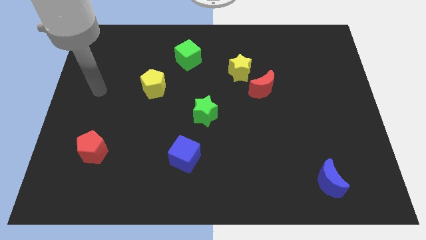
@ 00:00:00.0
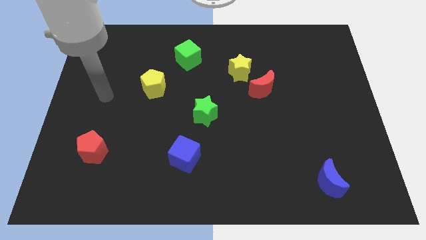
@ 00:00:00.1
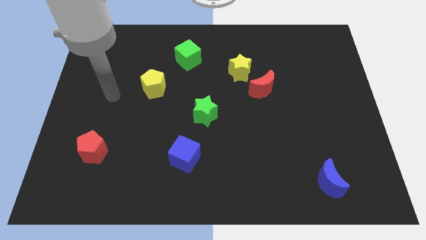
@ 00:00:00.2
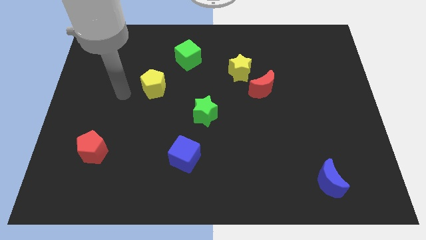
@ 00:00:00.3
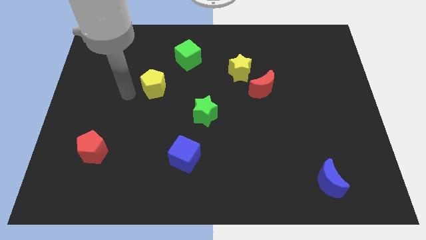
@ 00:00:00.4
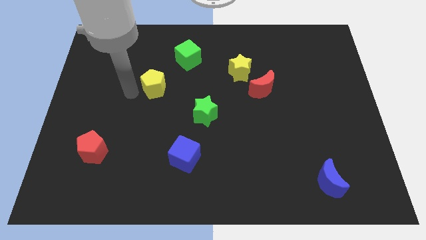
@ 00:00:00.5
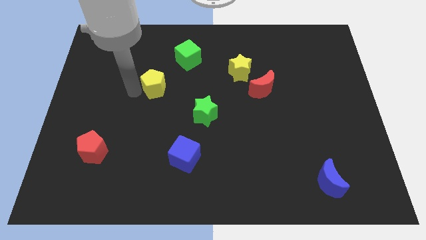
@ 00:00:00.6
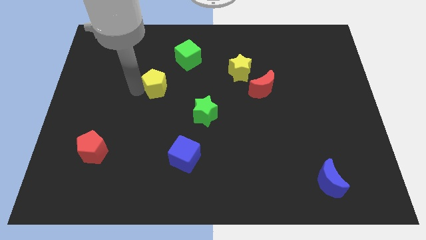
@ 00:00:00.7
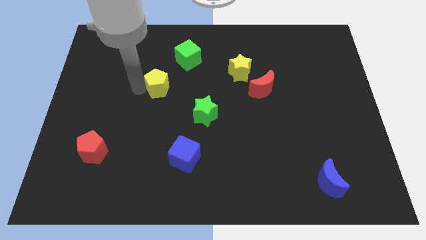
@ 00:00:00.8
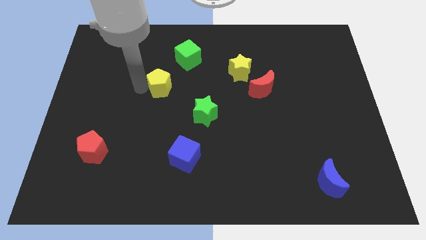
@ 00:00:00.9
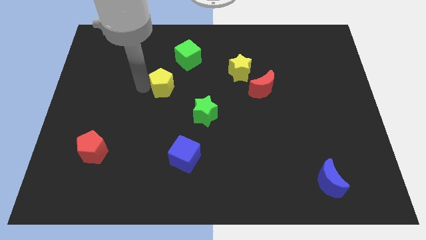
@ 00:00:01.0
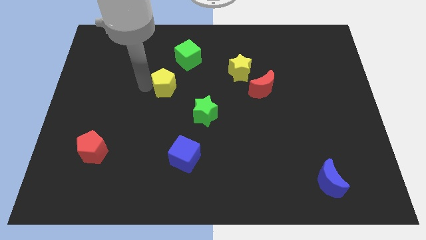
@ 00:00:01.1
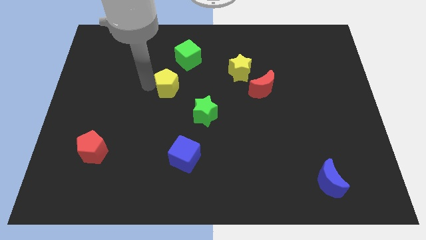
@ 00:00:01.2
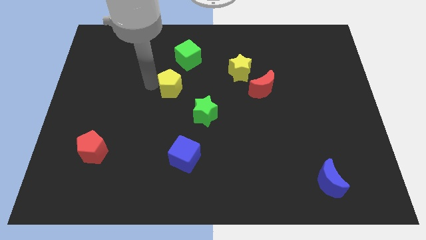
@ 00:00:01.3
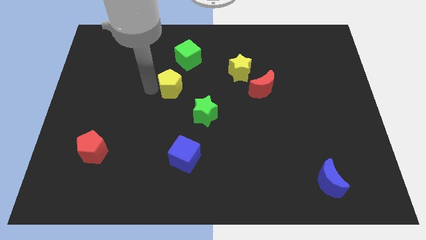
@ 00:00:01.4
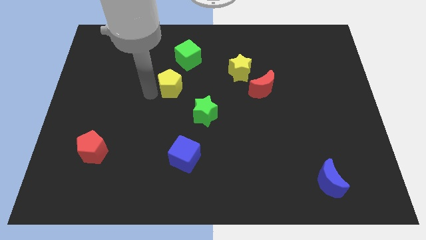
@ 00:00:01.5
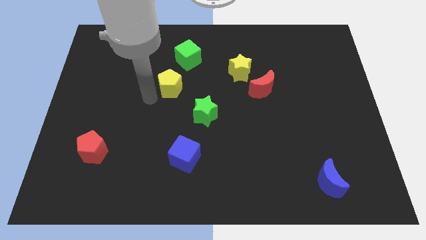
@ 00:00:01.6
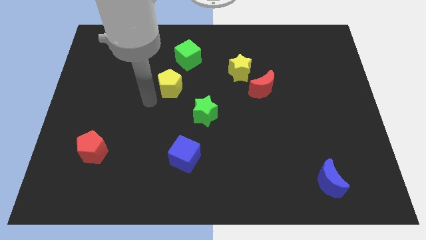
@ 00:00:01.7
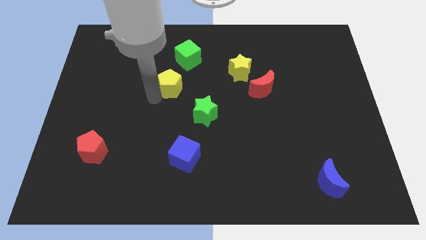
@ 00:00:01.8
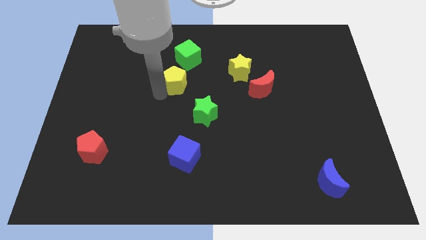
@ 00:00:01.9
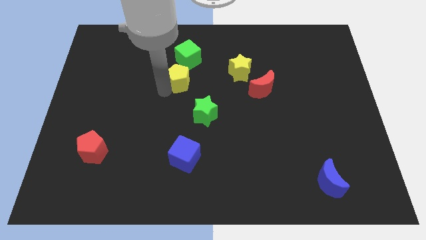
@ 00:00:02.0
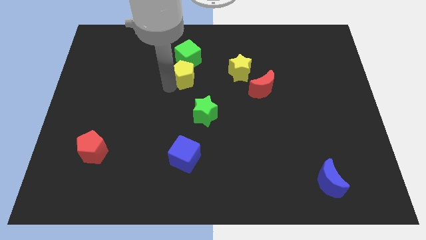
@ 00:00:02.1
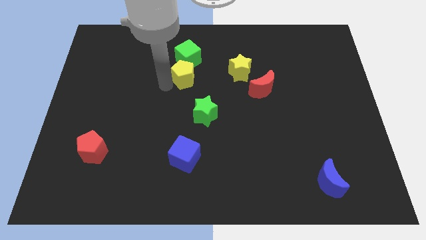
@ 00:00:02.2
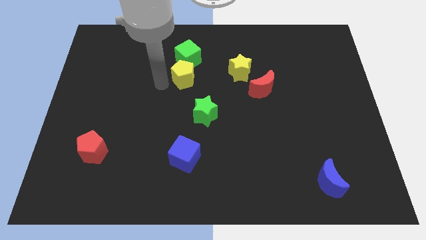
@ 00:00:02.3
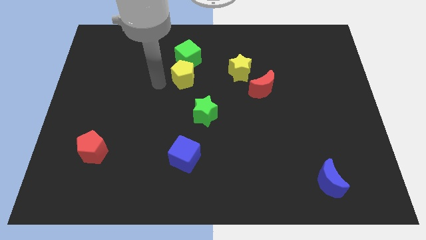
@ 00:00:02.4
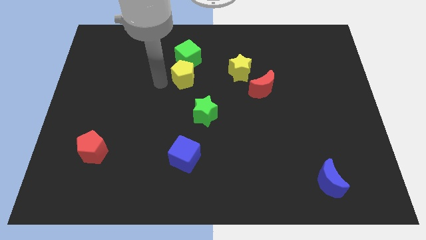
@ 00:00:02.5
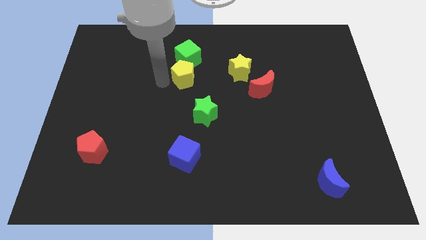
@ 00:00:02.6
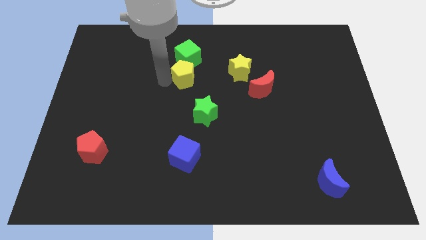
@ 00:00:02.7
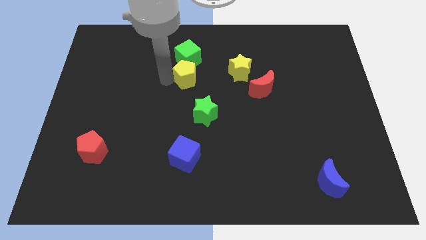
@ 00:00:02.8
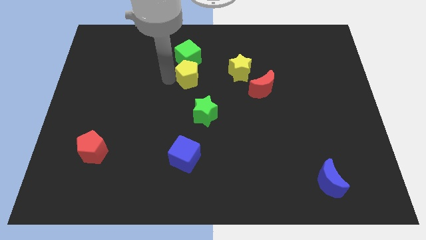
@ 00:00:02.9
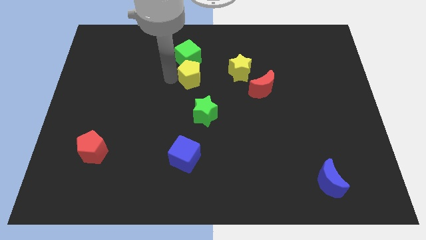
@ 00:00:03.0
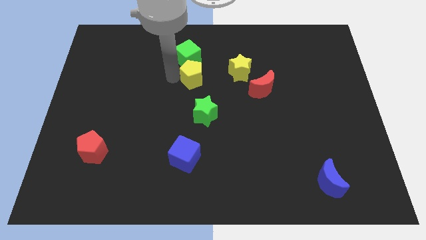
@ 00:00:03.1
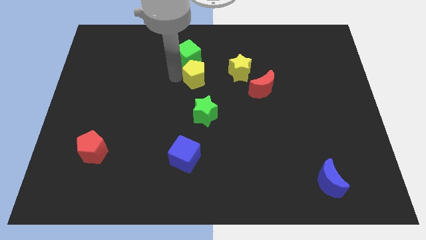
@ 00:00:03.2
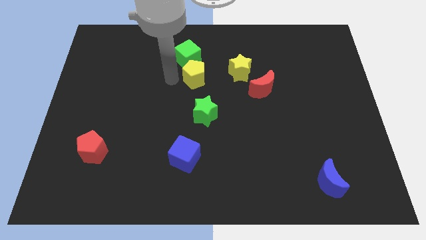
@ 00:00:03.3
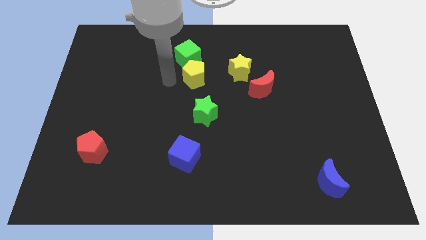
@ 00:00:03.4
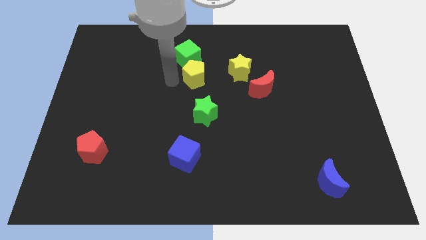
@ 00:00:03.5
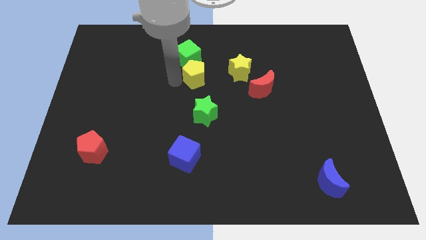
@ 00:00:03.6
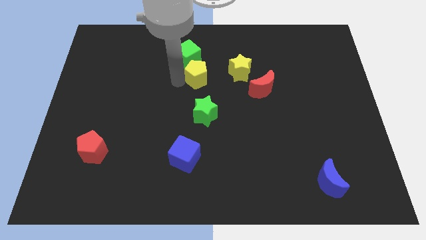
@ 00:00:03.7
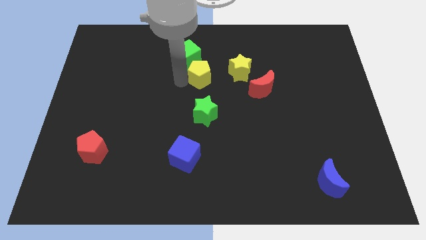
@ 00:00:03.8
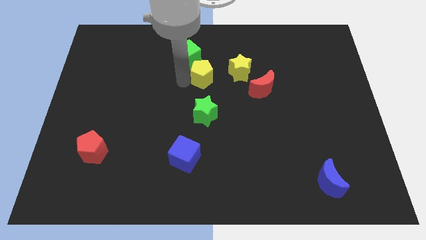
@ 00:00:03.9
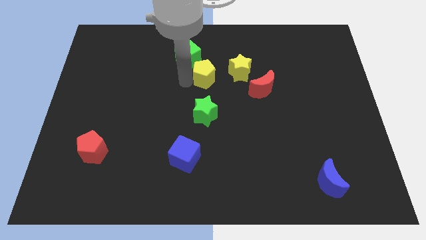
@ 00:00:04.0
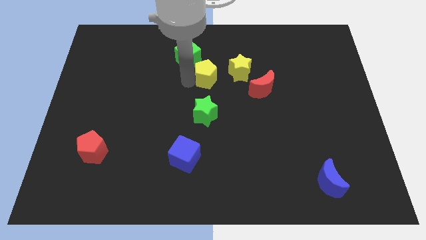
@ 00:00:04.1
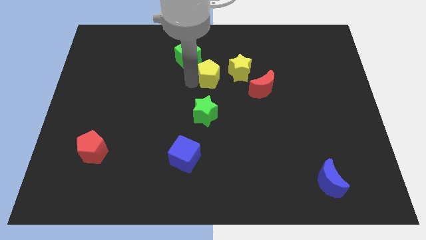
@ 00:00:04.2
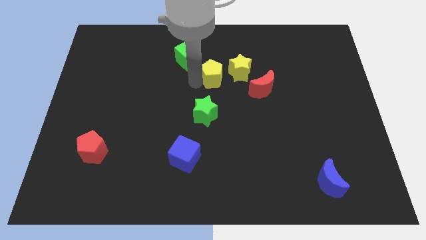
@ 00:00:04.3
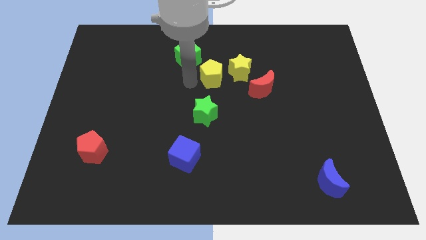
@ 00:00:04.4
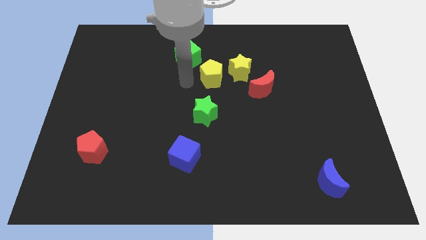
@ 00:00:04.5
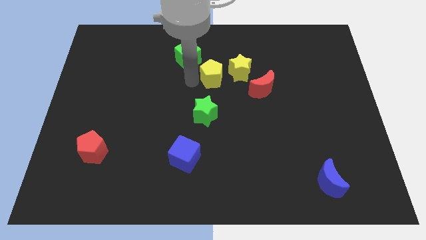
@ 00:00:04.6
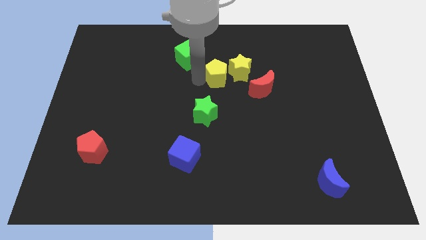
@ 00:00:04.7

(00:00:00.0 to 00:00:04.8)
move the yellow pentagon towards the yellow star

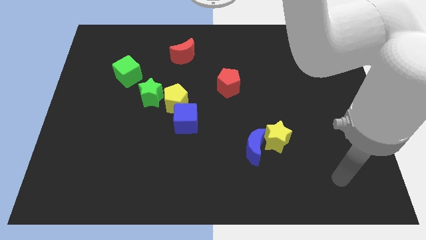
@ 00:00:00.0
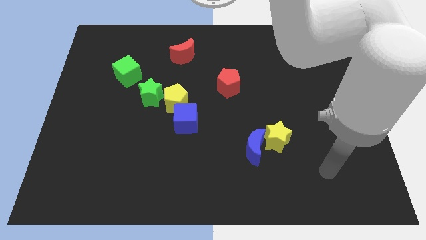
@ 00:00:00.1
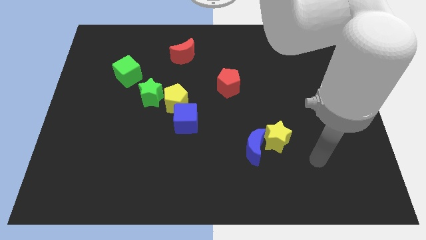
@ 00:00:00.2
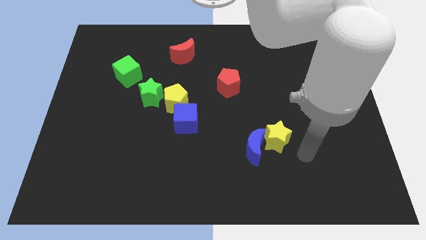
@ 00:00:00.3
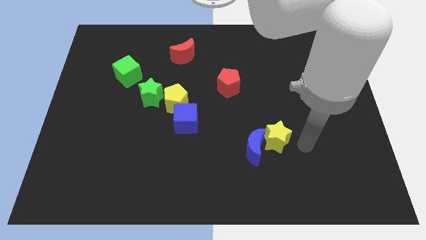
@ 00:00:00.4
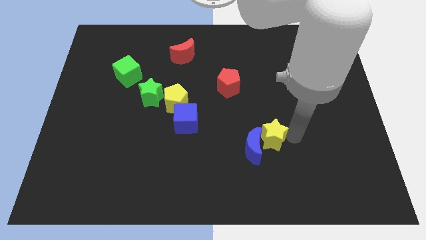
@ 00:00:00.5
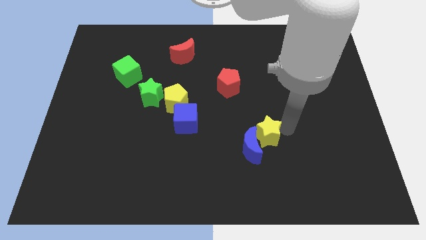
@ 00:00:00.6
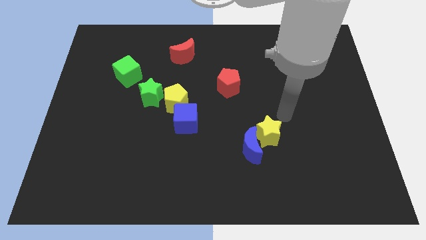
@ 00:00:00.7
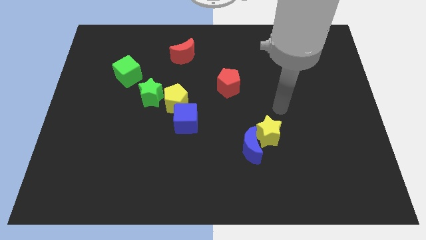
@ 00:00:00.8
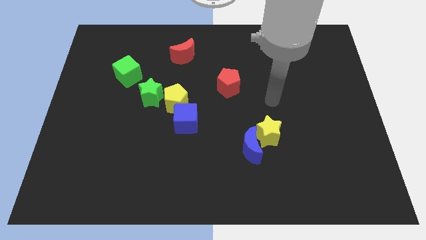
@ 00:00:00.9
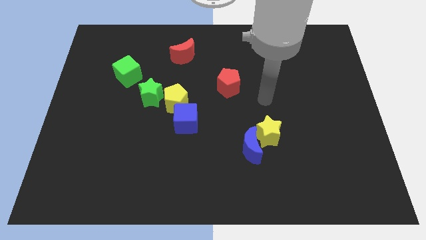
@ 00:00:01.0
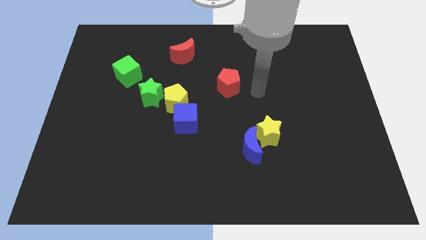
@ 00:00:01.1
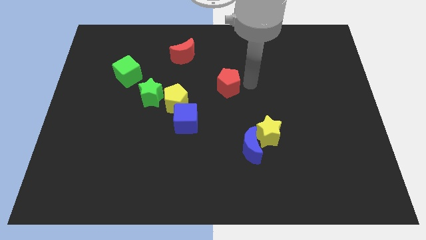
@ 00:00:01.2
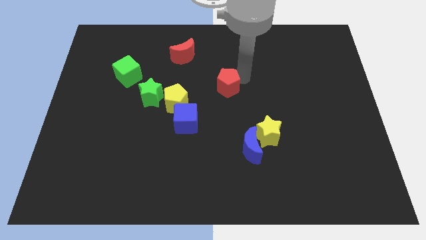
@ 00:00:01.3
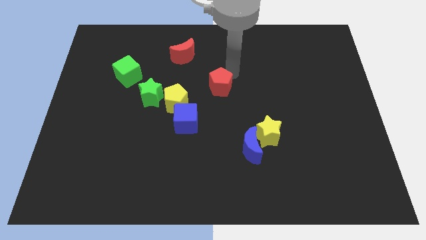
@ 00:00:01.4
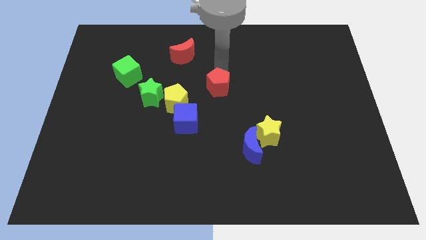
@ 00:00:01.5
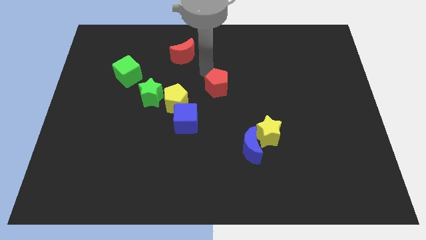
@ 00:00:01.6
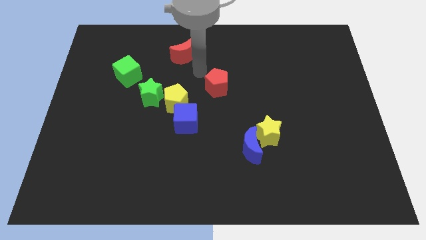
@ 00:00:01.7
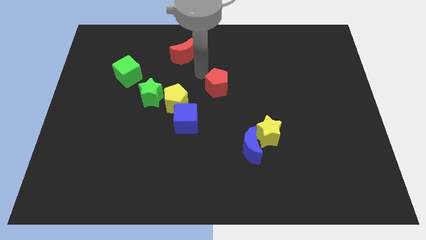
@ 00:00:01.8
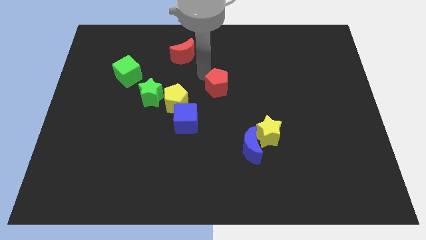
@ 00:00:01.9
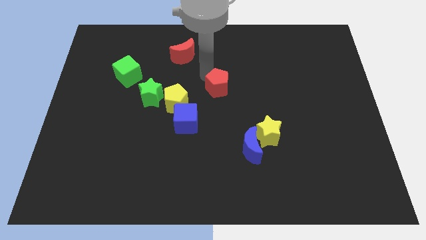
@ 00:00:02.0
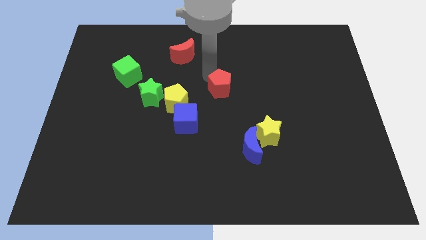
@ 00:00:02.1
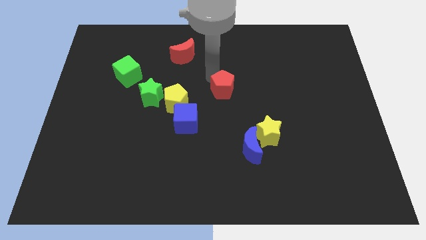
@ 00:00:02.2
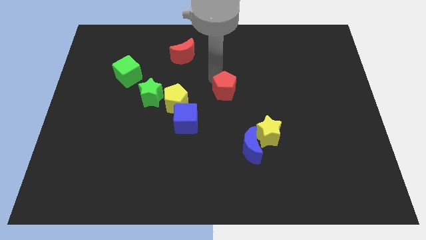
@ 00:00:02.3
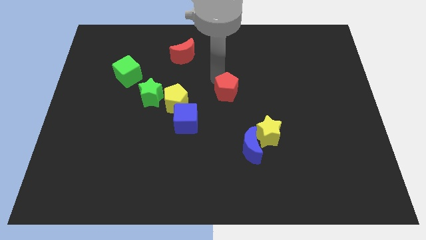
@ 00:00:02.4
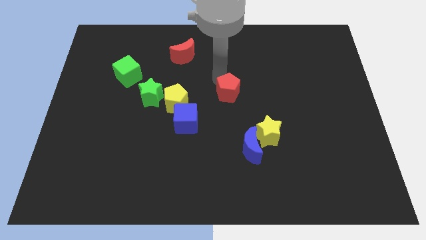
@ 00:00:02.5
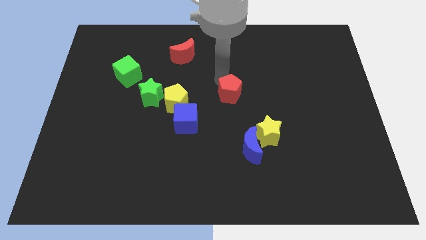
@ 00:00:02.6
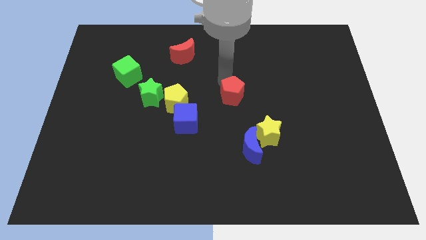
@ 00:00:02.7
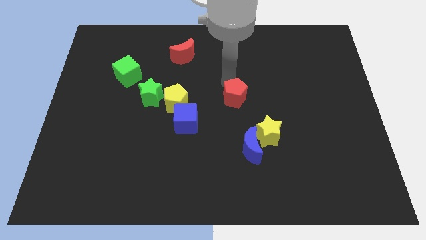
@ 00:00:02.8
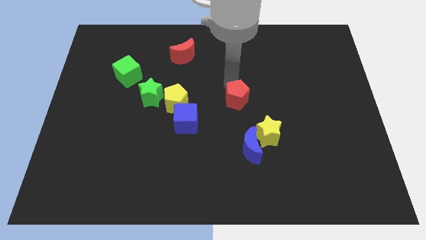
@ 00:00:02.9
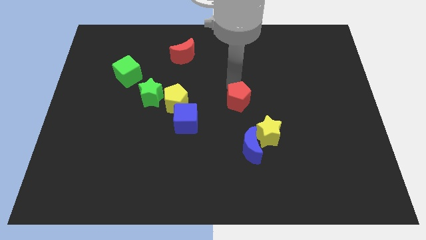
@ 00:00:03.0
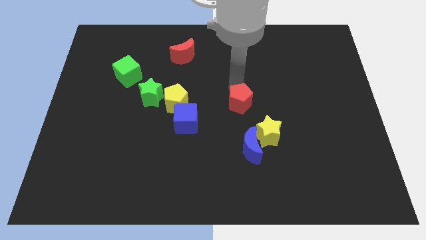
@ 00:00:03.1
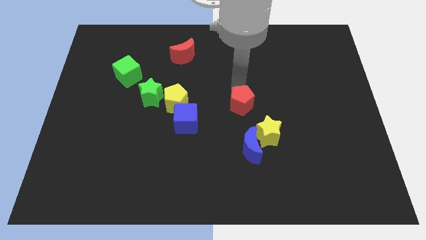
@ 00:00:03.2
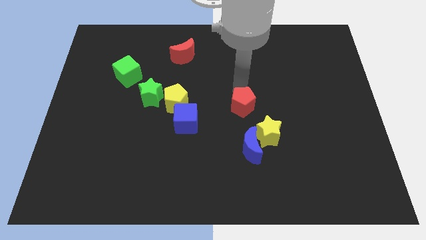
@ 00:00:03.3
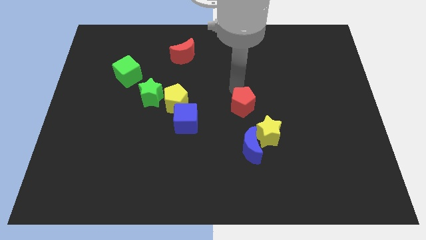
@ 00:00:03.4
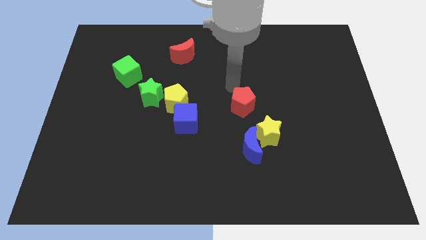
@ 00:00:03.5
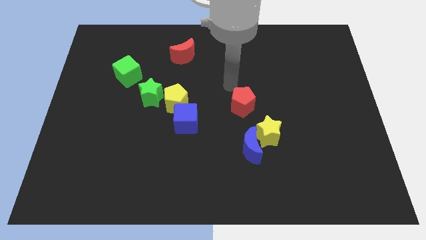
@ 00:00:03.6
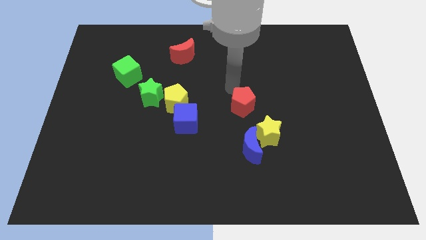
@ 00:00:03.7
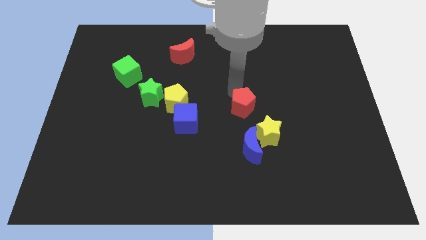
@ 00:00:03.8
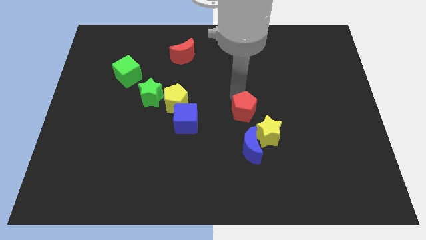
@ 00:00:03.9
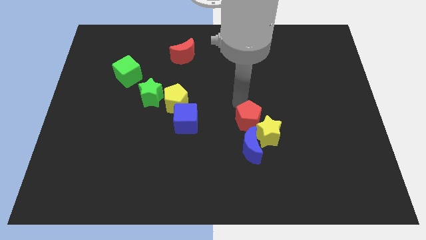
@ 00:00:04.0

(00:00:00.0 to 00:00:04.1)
push the red pentagon towards the yellow star
